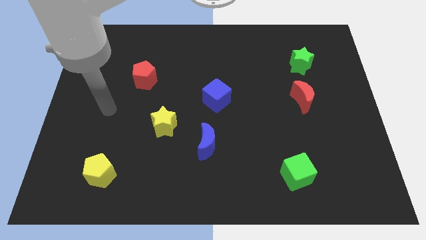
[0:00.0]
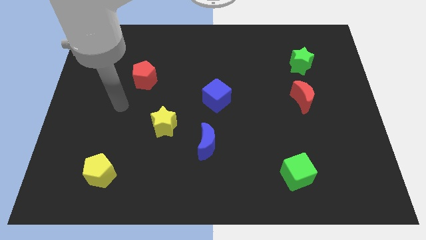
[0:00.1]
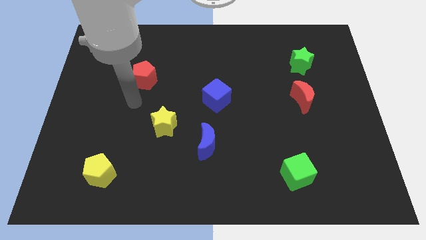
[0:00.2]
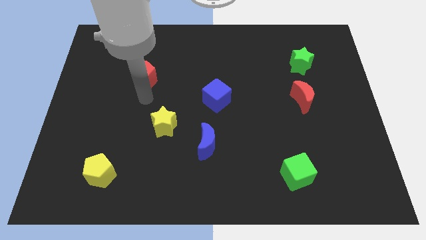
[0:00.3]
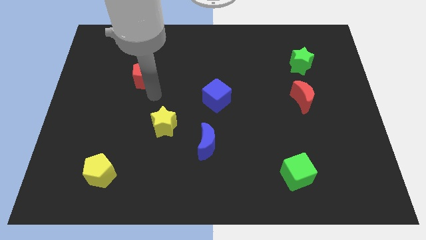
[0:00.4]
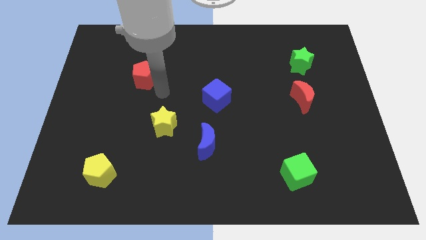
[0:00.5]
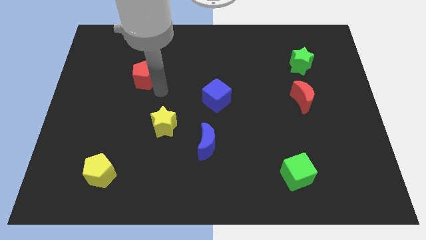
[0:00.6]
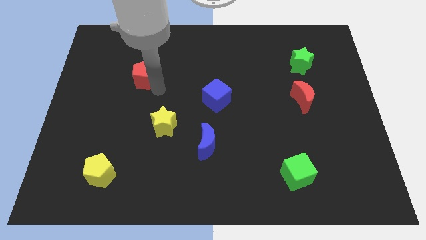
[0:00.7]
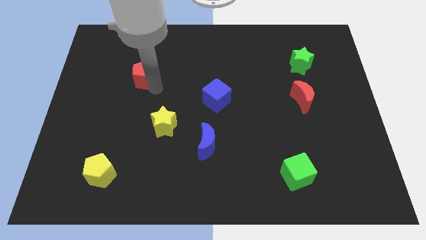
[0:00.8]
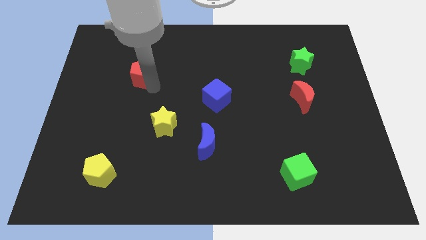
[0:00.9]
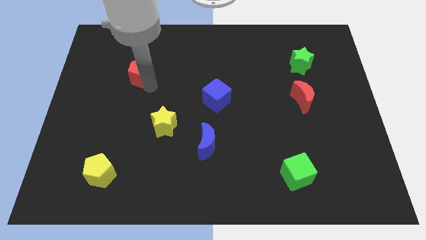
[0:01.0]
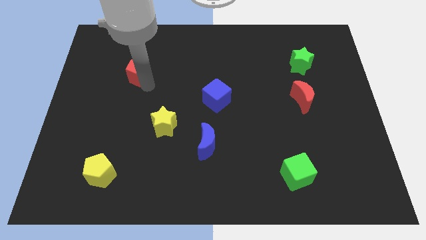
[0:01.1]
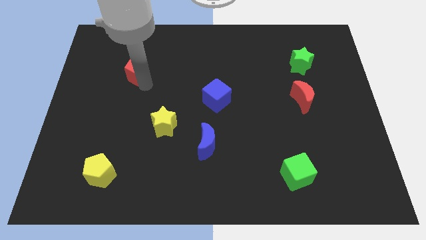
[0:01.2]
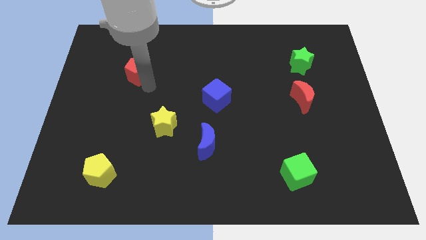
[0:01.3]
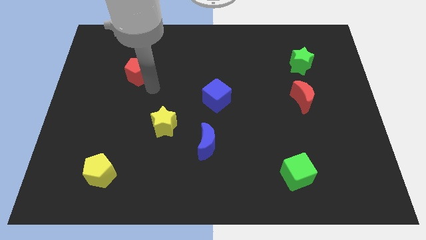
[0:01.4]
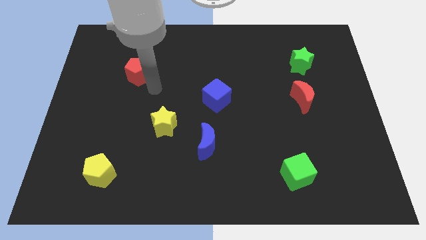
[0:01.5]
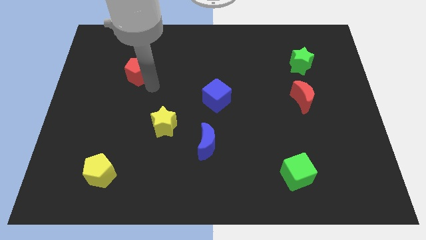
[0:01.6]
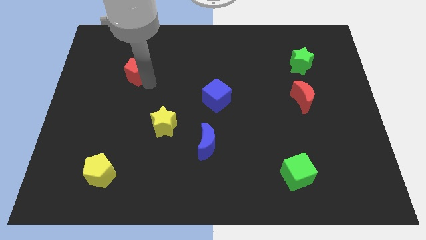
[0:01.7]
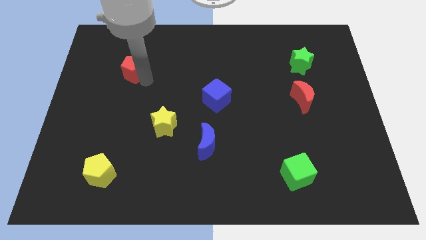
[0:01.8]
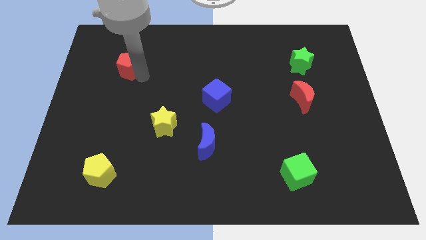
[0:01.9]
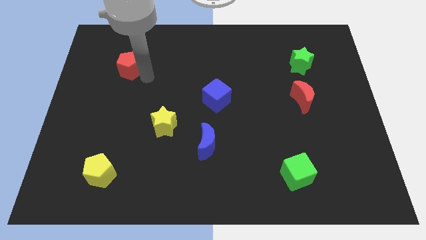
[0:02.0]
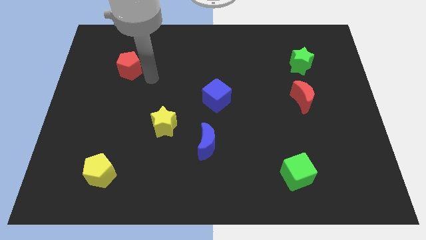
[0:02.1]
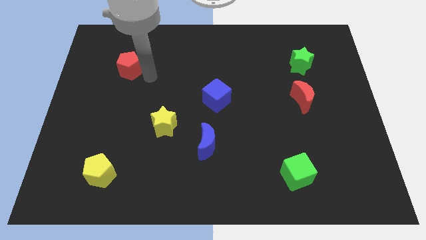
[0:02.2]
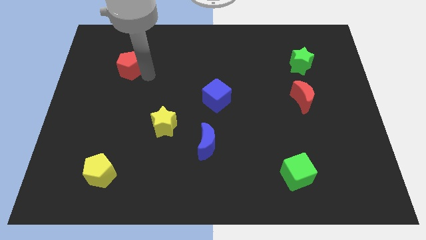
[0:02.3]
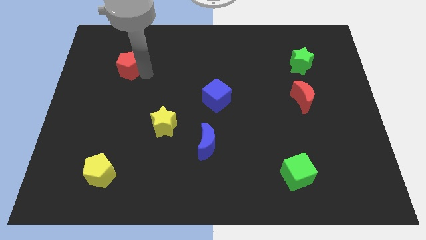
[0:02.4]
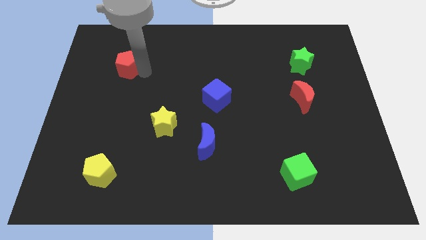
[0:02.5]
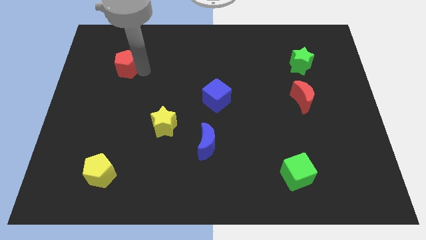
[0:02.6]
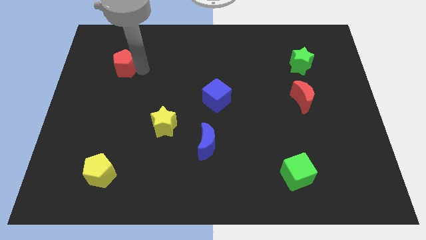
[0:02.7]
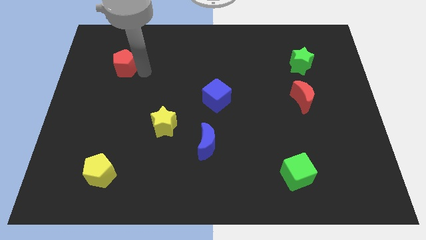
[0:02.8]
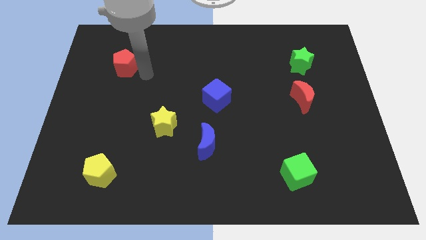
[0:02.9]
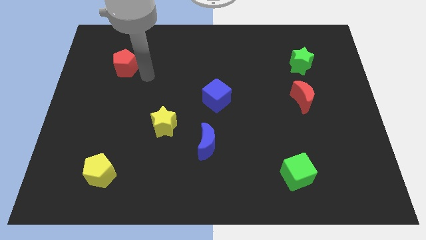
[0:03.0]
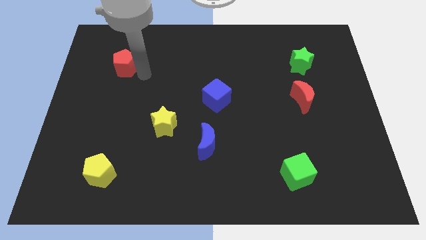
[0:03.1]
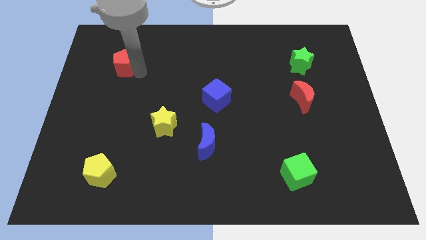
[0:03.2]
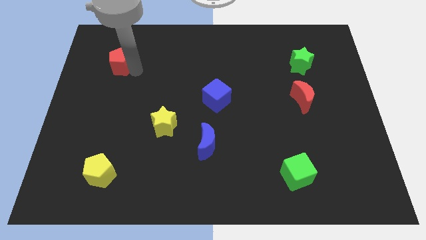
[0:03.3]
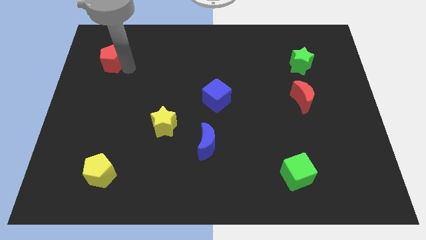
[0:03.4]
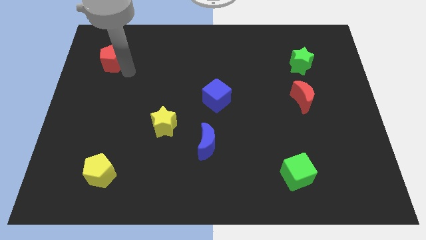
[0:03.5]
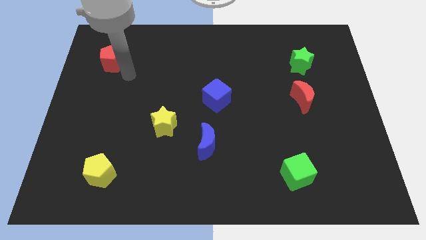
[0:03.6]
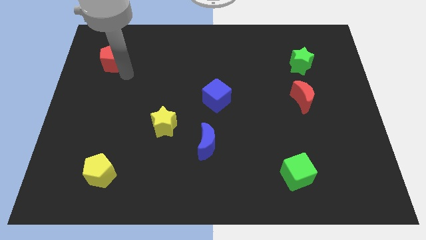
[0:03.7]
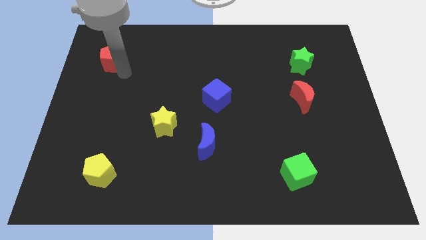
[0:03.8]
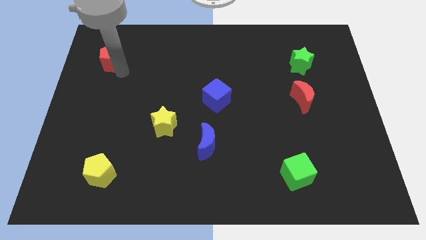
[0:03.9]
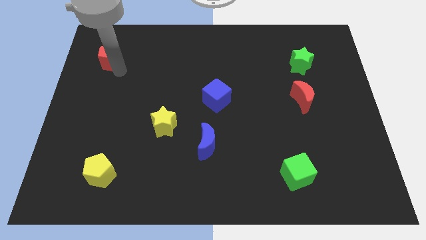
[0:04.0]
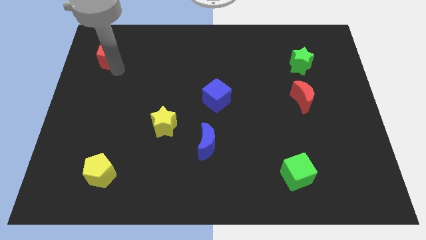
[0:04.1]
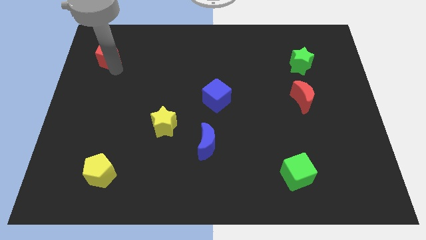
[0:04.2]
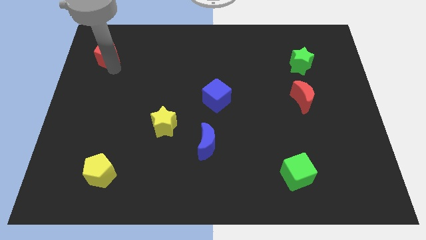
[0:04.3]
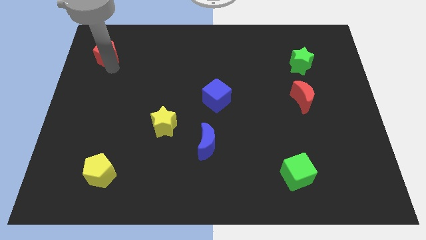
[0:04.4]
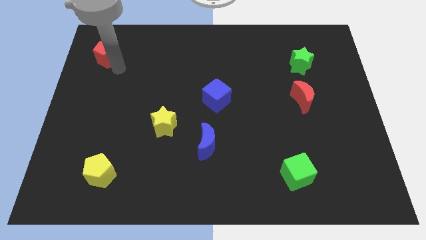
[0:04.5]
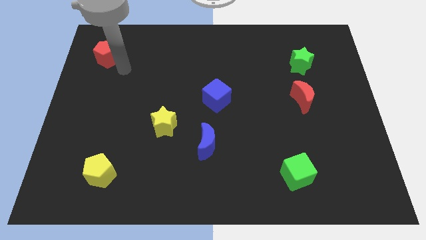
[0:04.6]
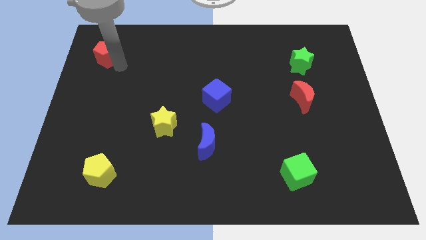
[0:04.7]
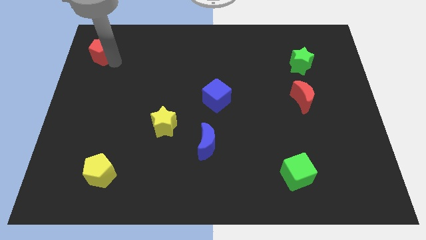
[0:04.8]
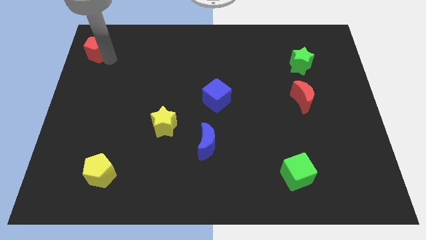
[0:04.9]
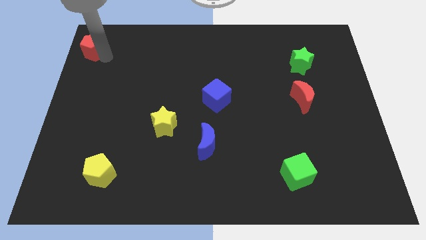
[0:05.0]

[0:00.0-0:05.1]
move the red pentagon to the top left corner

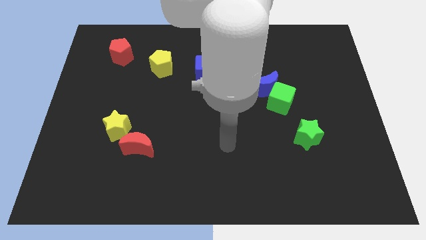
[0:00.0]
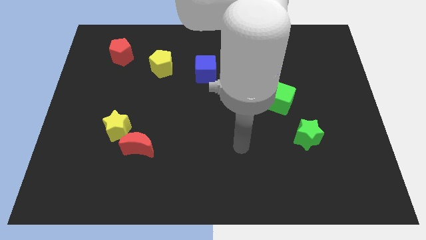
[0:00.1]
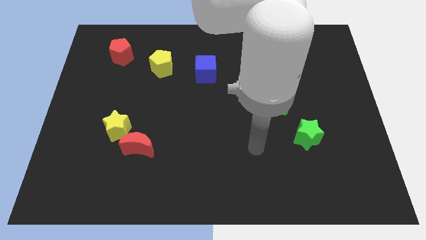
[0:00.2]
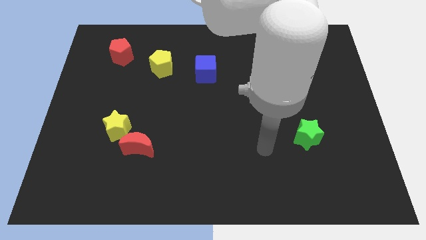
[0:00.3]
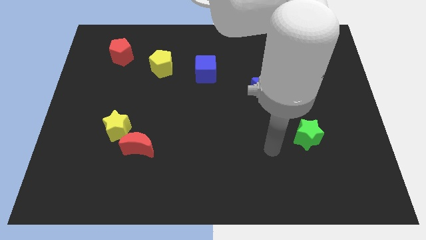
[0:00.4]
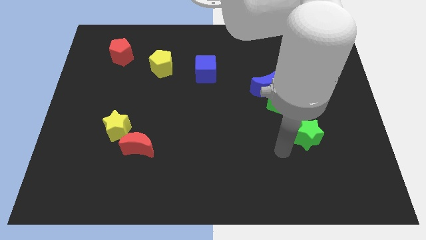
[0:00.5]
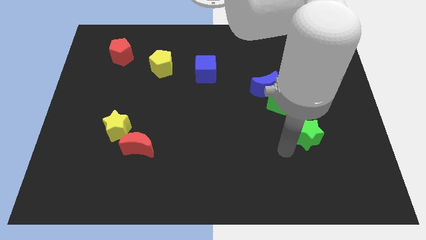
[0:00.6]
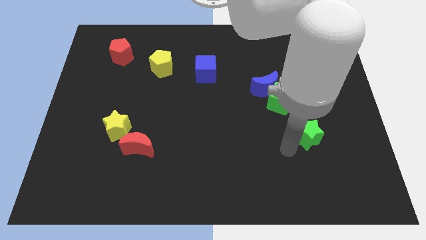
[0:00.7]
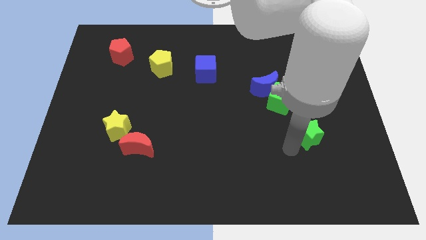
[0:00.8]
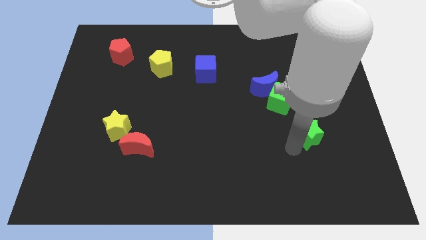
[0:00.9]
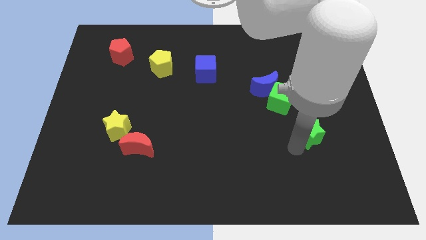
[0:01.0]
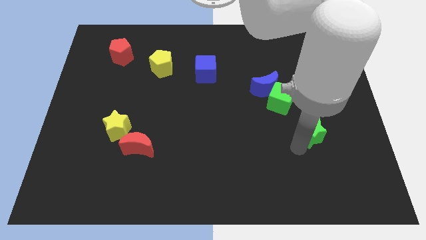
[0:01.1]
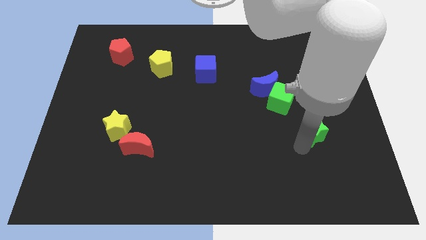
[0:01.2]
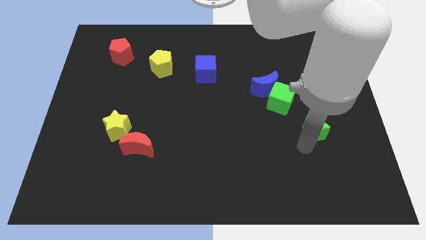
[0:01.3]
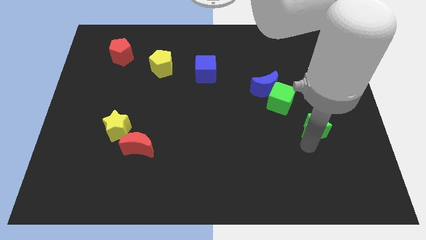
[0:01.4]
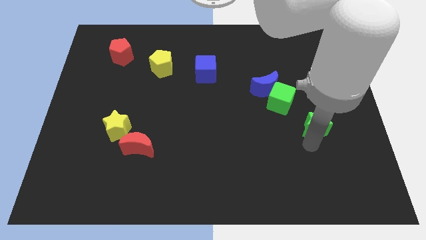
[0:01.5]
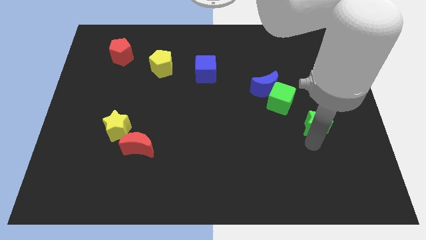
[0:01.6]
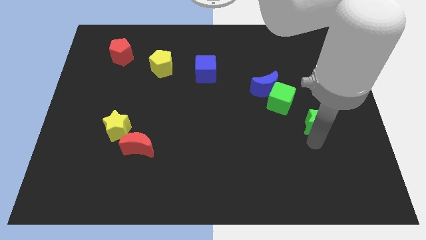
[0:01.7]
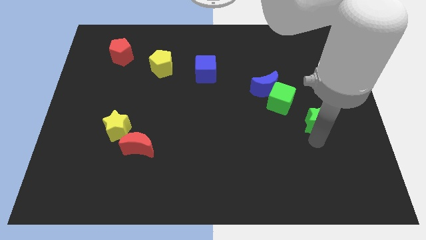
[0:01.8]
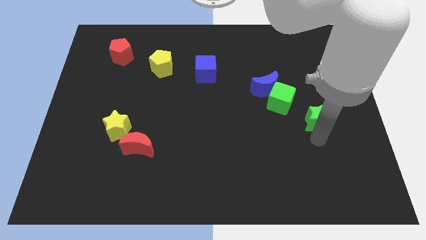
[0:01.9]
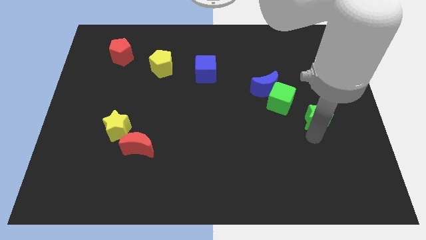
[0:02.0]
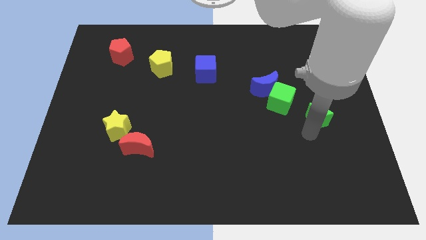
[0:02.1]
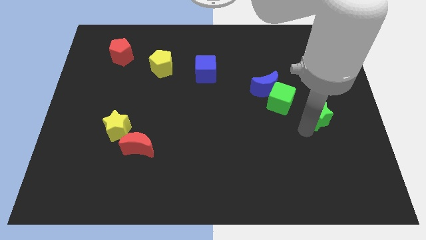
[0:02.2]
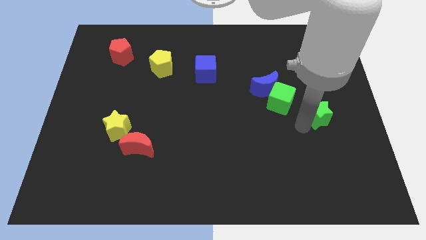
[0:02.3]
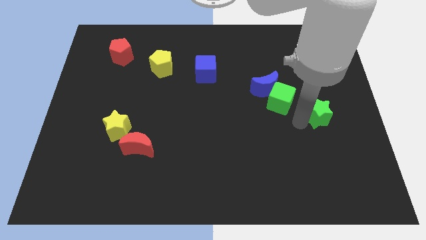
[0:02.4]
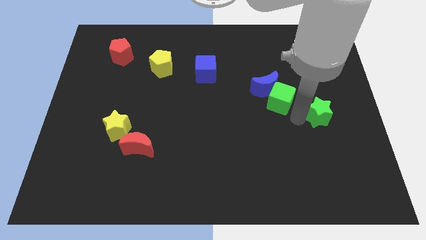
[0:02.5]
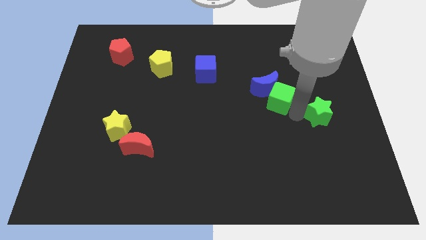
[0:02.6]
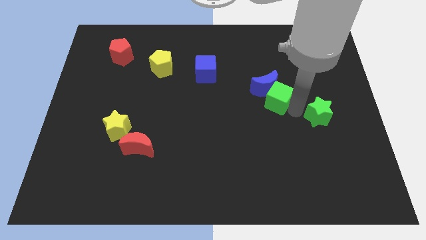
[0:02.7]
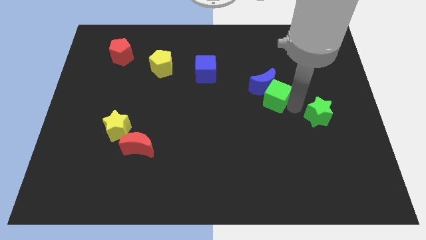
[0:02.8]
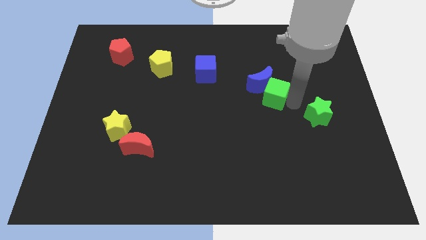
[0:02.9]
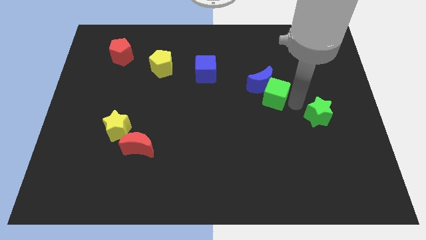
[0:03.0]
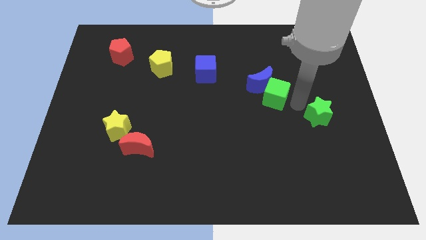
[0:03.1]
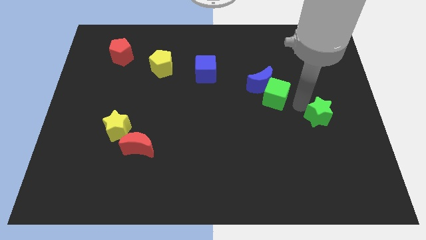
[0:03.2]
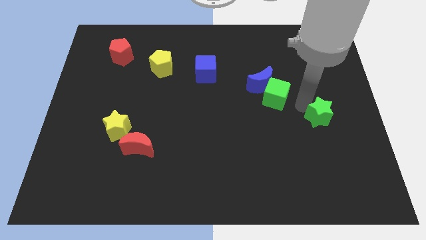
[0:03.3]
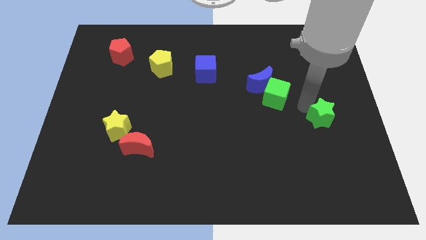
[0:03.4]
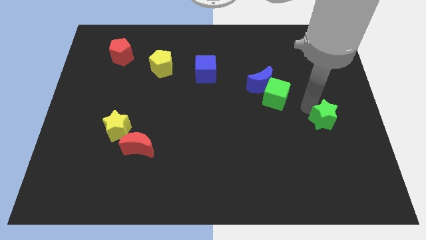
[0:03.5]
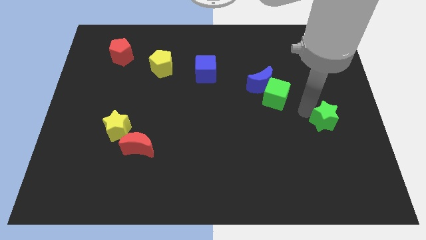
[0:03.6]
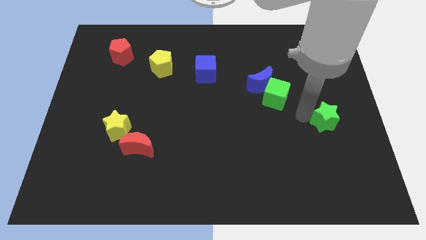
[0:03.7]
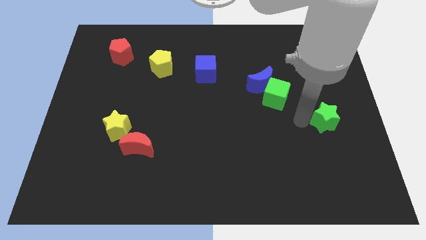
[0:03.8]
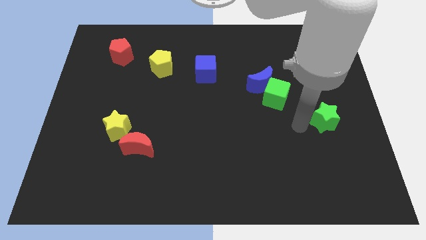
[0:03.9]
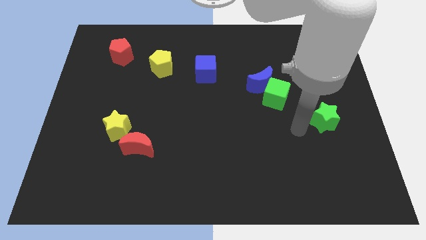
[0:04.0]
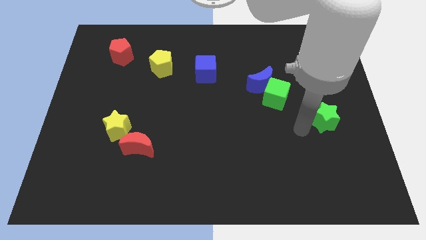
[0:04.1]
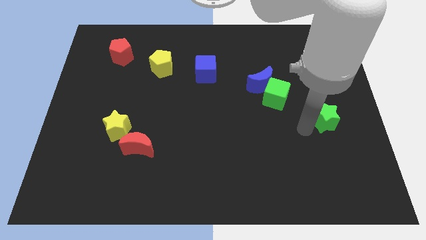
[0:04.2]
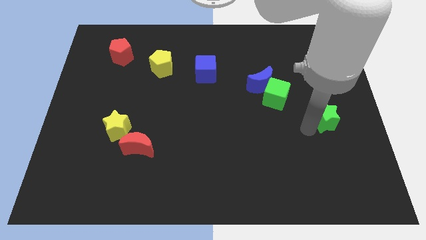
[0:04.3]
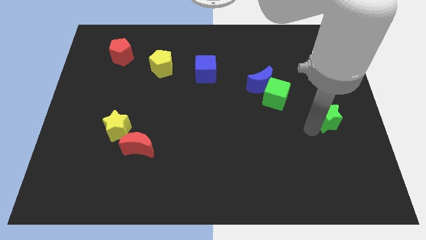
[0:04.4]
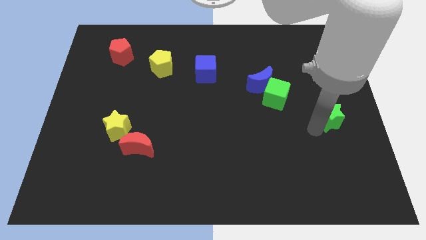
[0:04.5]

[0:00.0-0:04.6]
move the green star to the right side of the board
